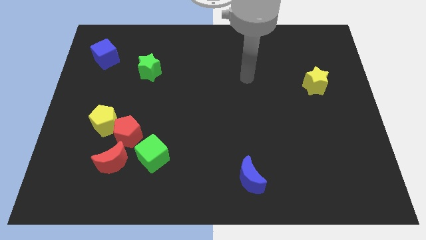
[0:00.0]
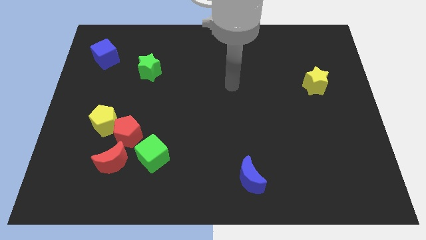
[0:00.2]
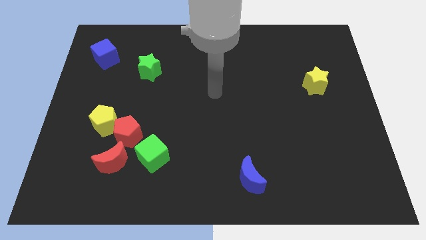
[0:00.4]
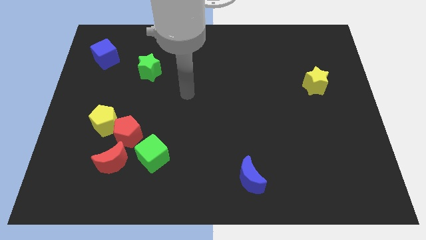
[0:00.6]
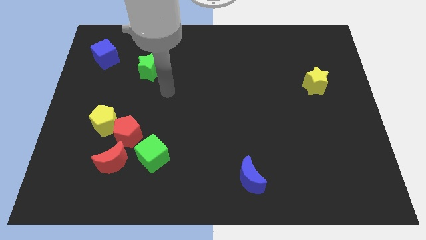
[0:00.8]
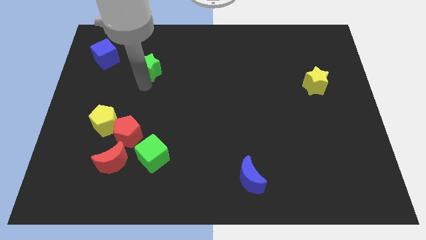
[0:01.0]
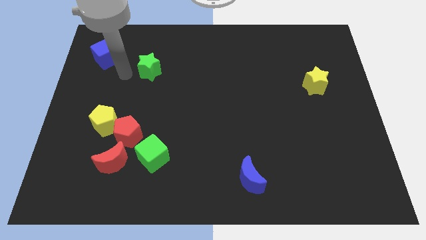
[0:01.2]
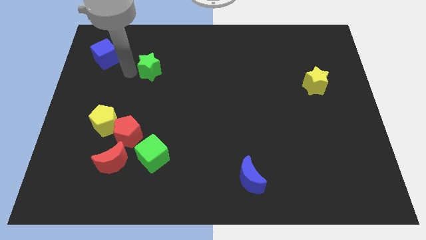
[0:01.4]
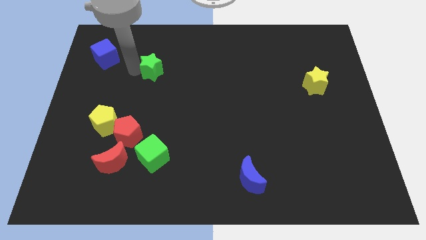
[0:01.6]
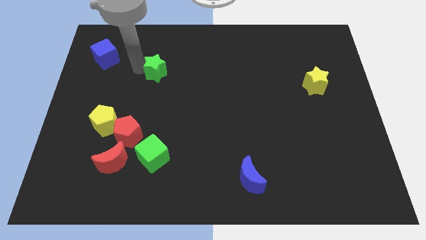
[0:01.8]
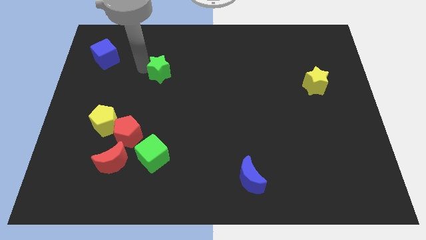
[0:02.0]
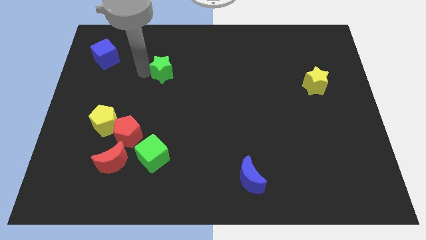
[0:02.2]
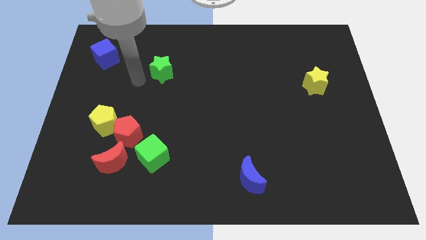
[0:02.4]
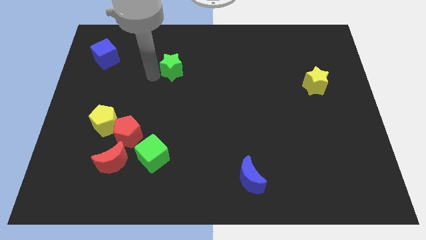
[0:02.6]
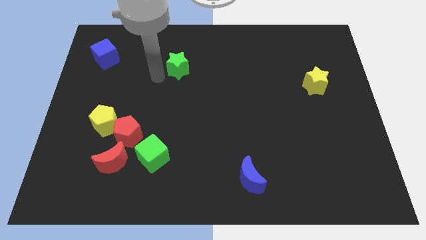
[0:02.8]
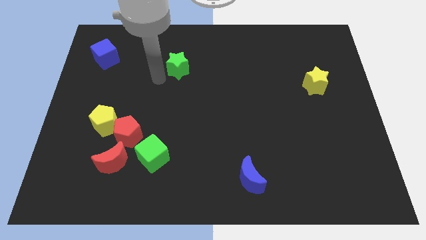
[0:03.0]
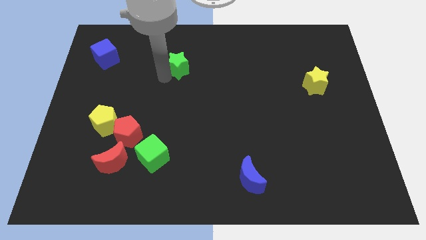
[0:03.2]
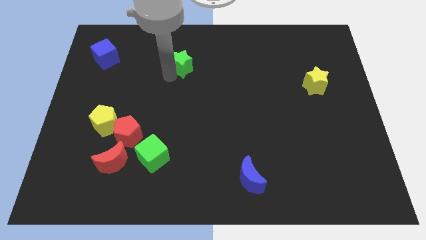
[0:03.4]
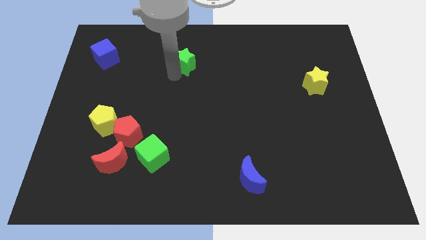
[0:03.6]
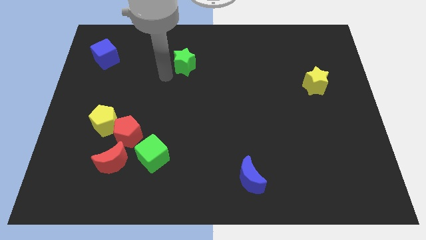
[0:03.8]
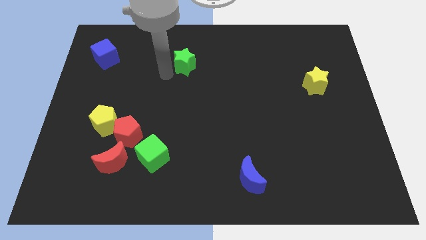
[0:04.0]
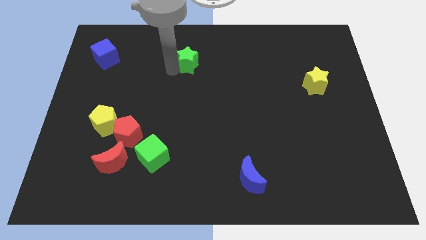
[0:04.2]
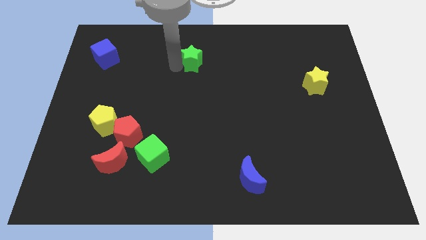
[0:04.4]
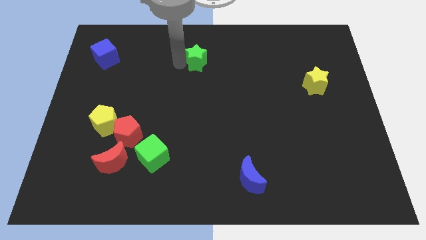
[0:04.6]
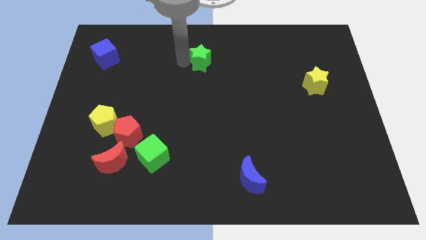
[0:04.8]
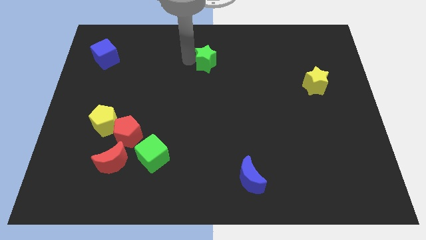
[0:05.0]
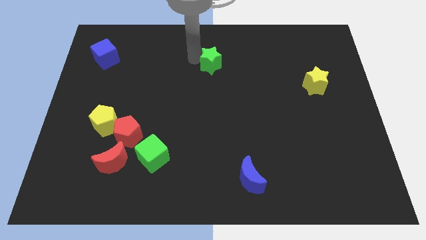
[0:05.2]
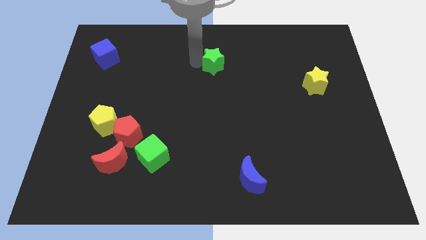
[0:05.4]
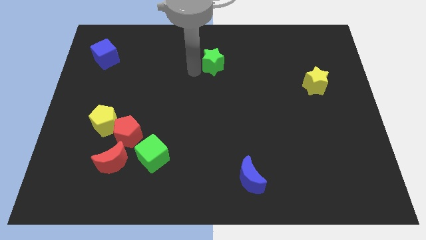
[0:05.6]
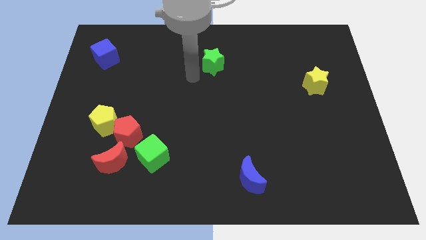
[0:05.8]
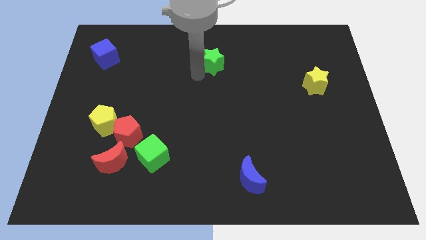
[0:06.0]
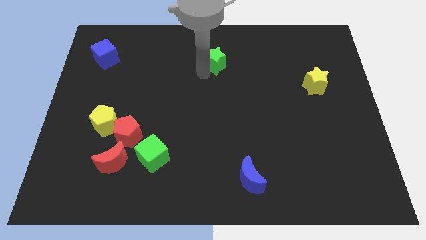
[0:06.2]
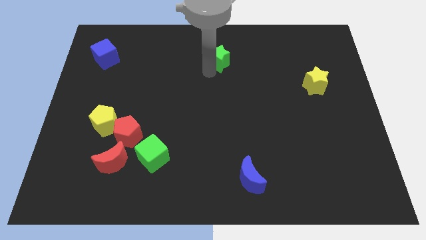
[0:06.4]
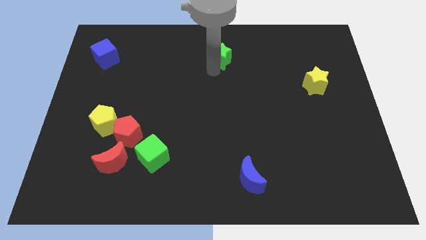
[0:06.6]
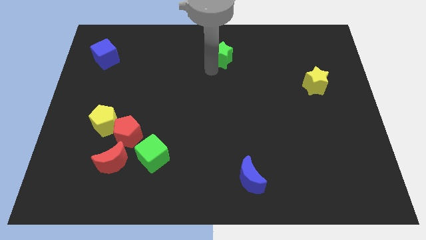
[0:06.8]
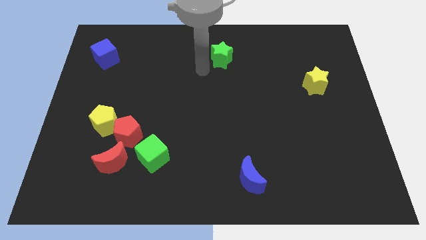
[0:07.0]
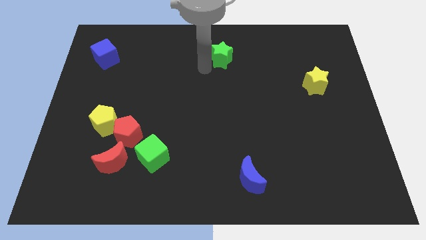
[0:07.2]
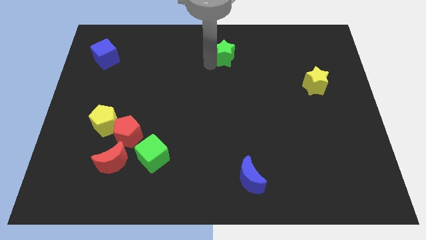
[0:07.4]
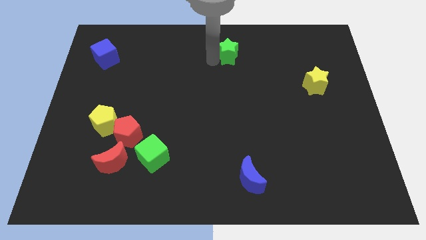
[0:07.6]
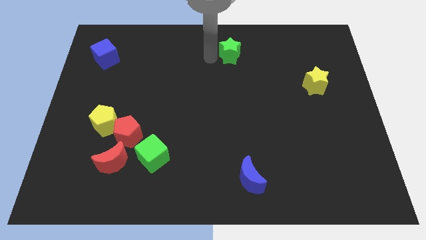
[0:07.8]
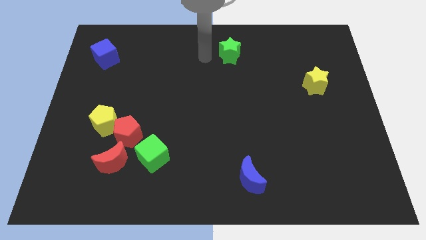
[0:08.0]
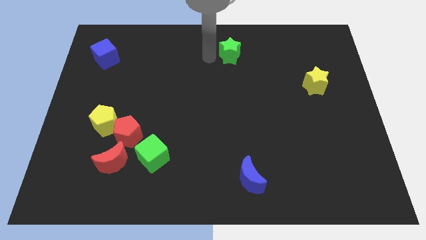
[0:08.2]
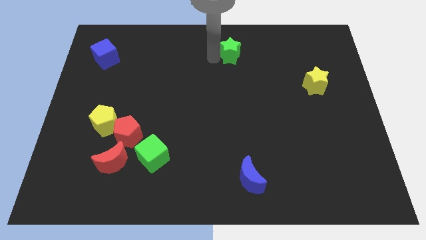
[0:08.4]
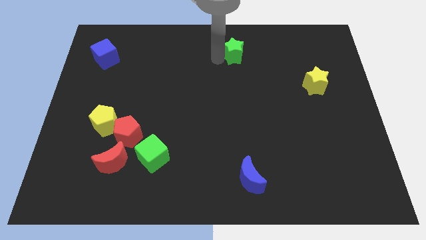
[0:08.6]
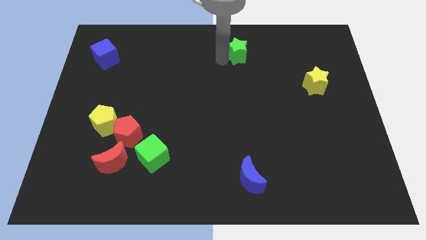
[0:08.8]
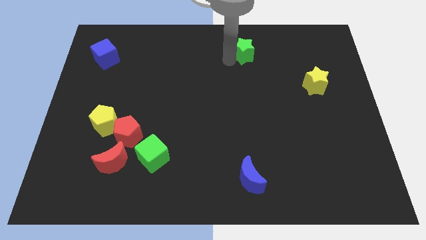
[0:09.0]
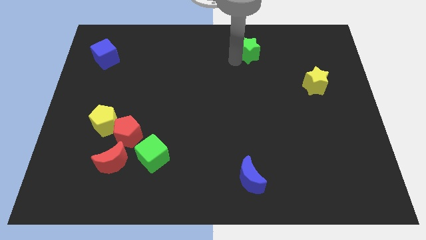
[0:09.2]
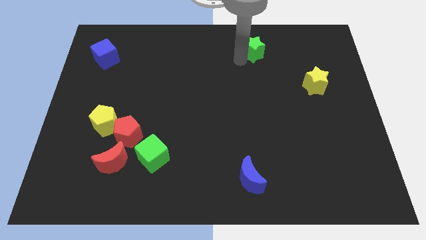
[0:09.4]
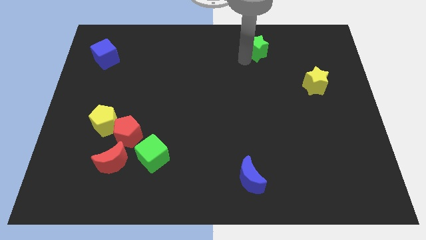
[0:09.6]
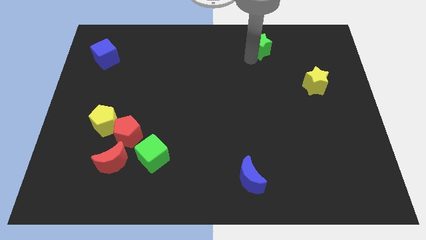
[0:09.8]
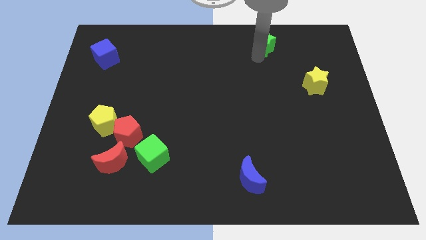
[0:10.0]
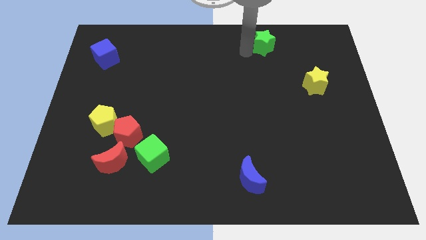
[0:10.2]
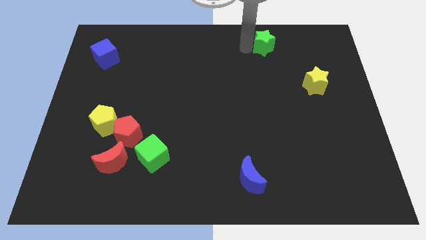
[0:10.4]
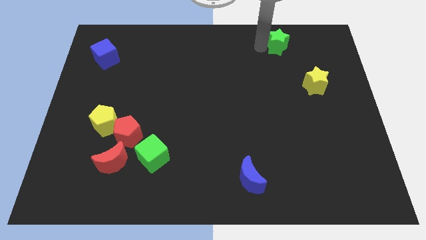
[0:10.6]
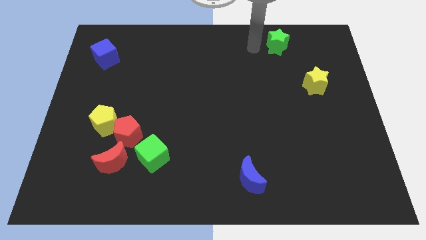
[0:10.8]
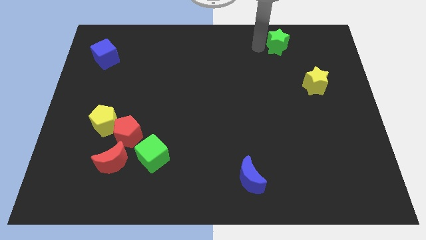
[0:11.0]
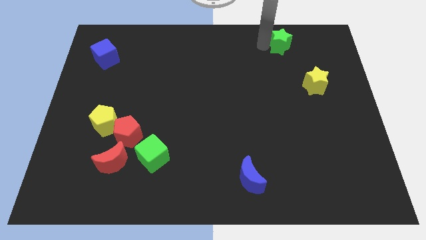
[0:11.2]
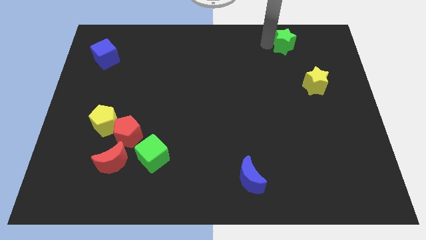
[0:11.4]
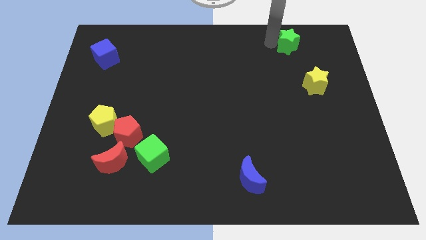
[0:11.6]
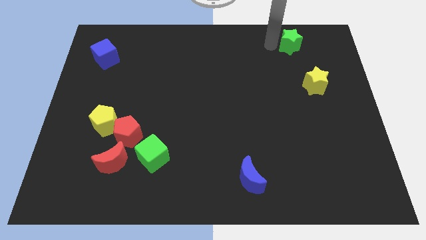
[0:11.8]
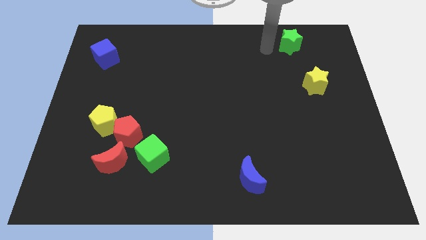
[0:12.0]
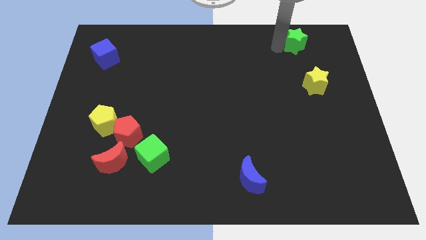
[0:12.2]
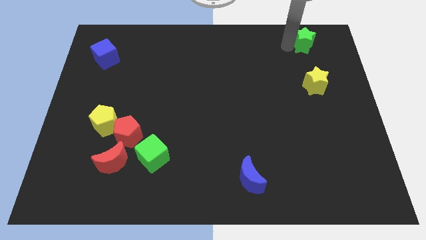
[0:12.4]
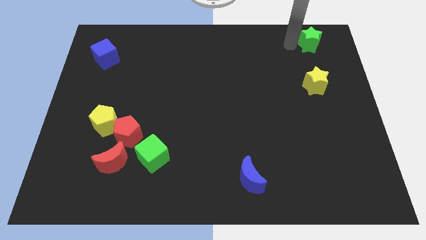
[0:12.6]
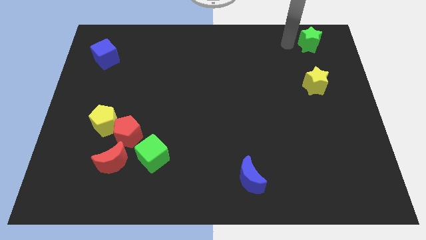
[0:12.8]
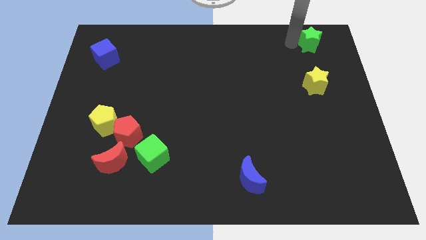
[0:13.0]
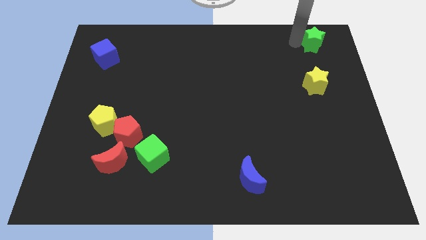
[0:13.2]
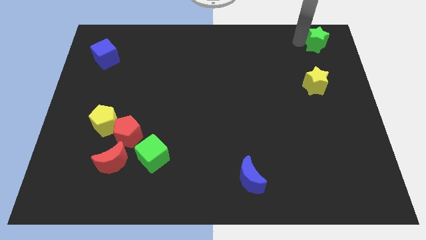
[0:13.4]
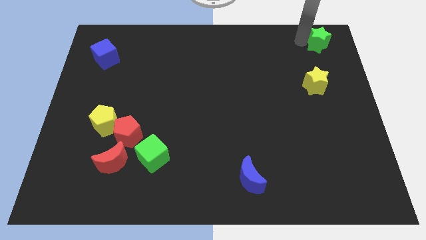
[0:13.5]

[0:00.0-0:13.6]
move the green star to the upper right corner

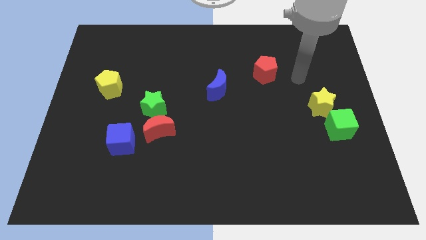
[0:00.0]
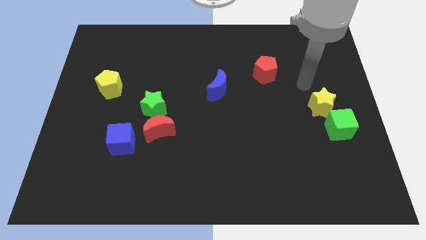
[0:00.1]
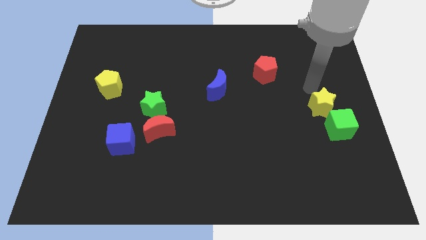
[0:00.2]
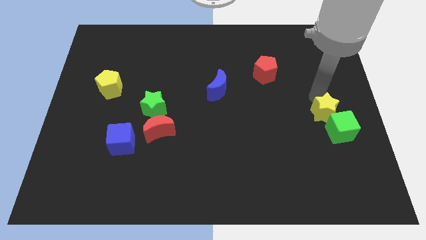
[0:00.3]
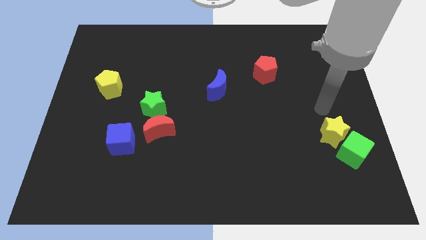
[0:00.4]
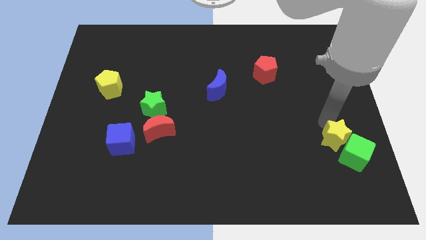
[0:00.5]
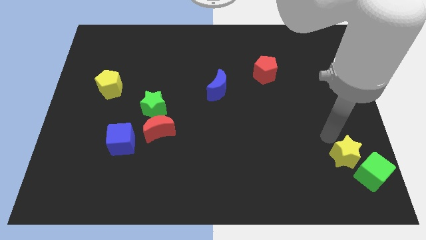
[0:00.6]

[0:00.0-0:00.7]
slide the green cube to the bottom right of the board

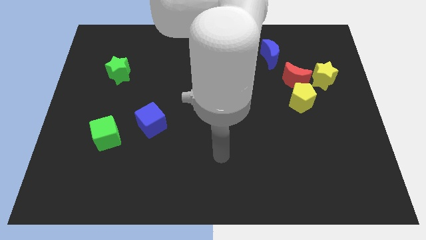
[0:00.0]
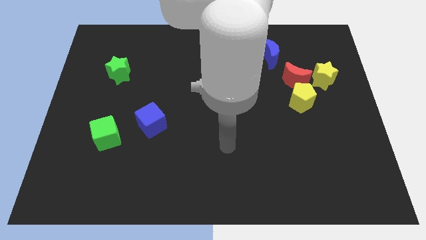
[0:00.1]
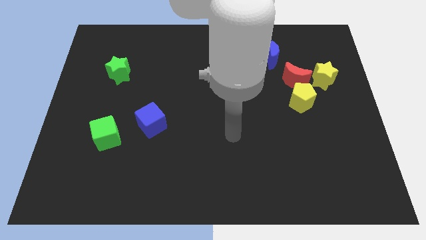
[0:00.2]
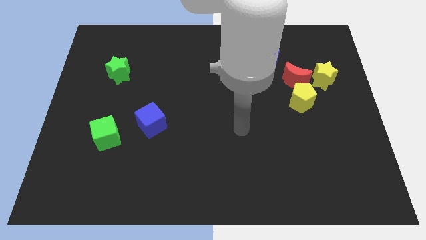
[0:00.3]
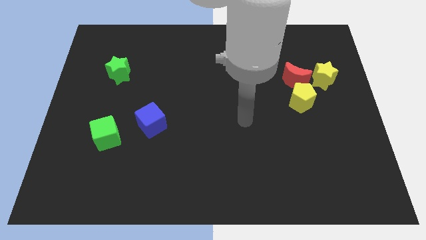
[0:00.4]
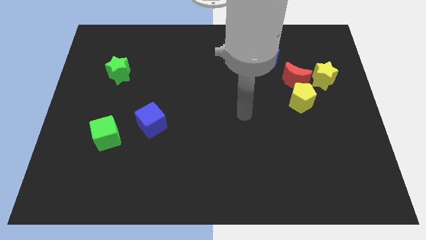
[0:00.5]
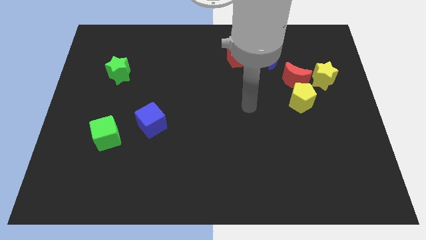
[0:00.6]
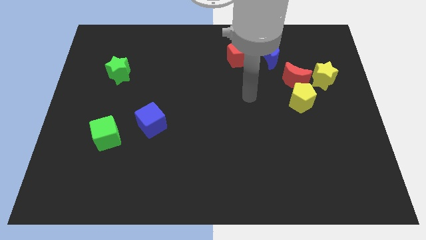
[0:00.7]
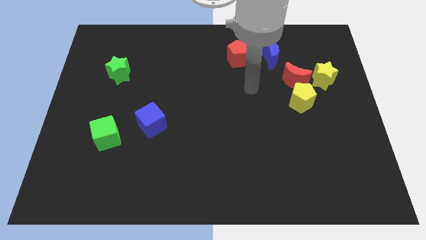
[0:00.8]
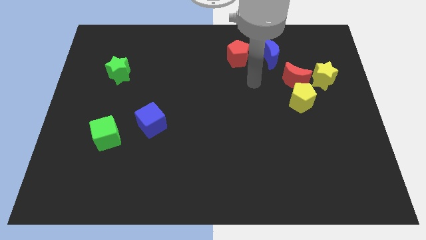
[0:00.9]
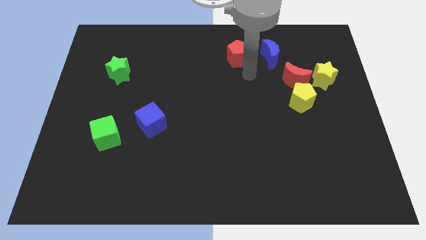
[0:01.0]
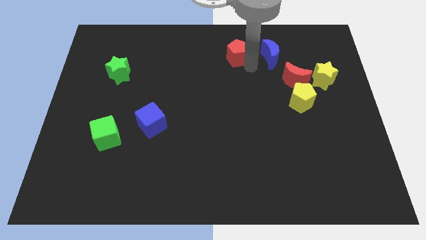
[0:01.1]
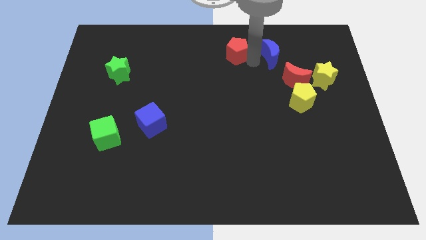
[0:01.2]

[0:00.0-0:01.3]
move the red pentagon to the top
